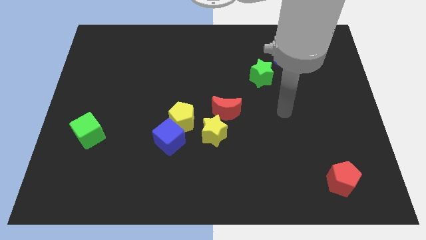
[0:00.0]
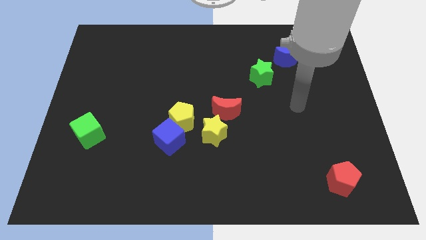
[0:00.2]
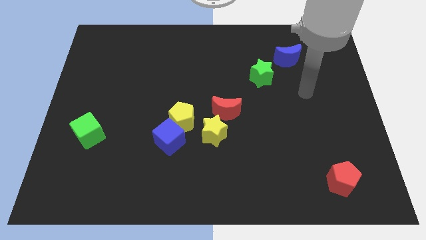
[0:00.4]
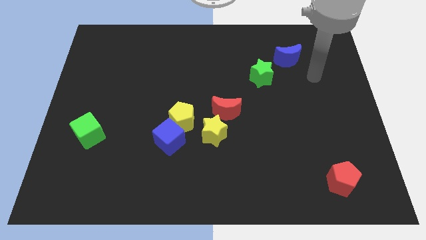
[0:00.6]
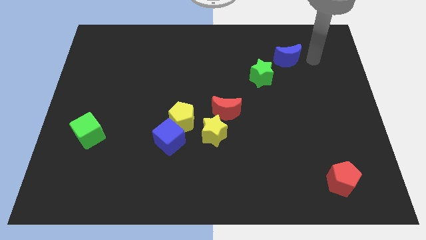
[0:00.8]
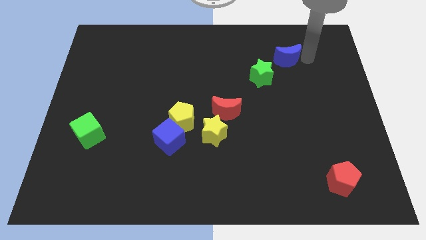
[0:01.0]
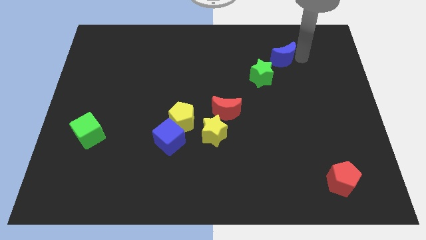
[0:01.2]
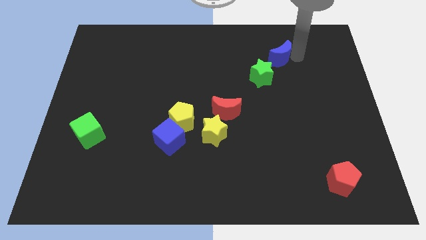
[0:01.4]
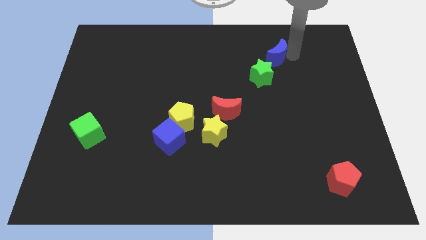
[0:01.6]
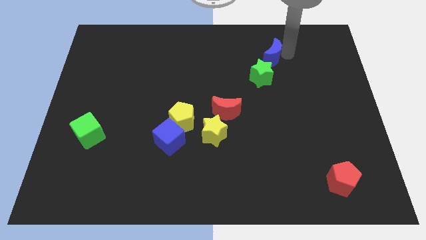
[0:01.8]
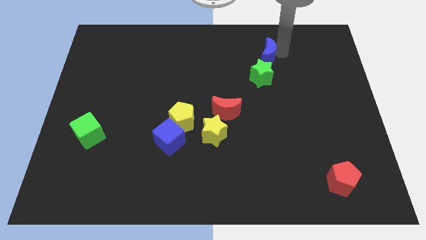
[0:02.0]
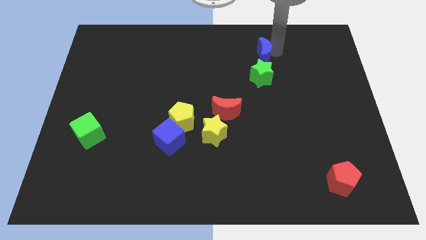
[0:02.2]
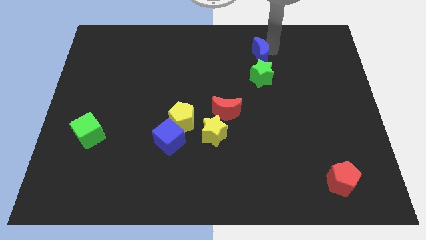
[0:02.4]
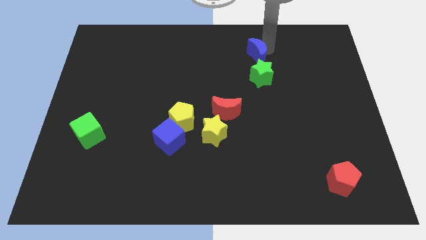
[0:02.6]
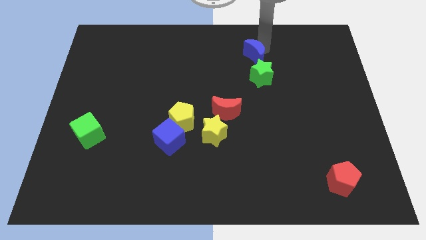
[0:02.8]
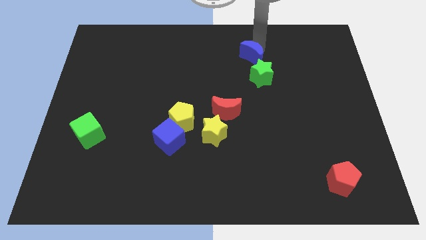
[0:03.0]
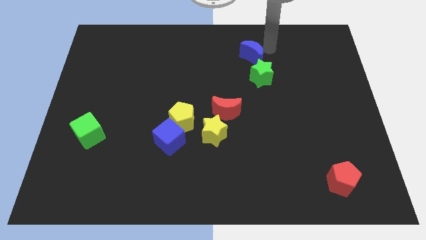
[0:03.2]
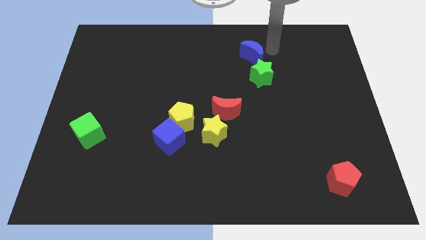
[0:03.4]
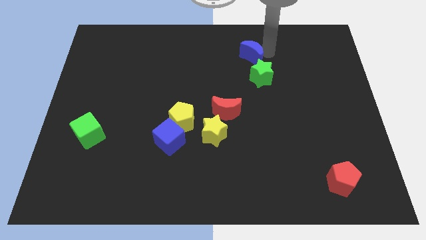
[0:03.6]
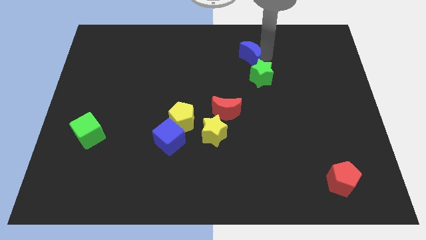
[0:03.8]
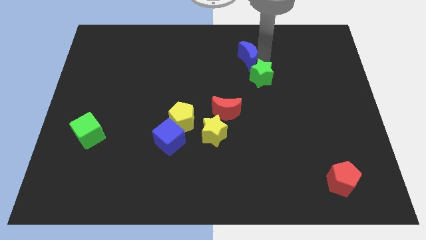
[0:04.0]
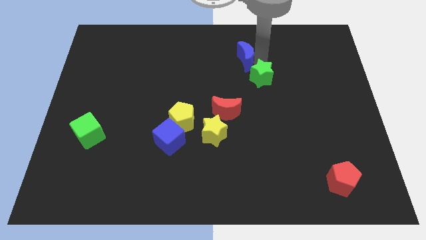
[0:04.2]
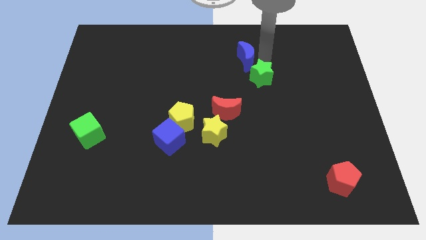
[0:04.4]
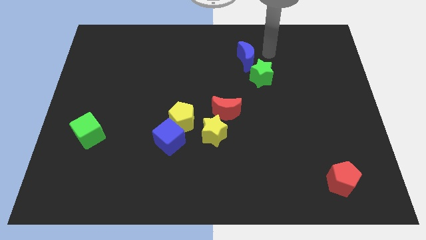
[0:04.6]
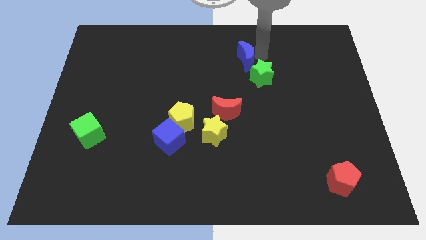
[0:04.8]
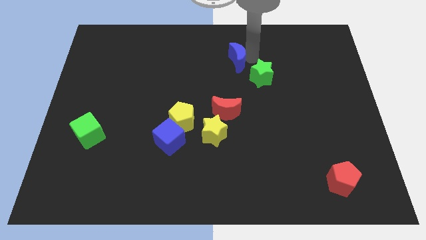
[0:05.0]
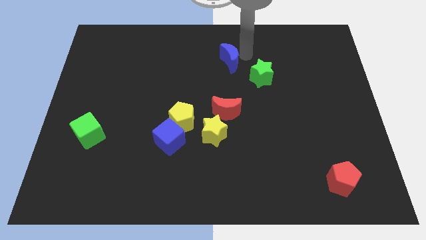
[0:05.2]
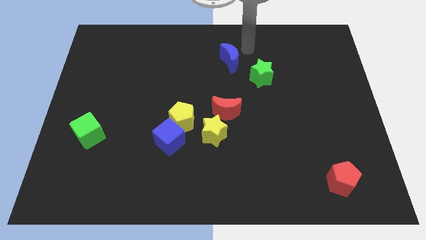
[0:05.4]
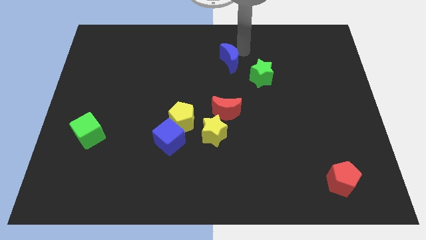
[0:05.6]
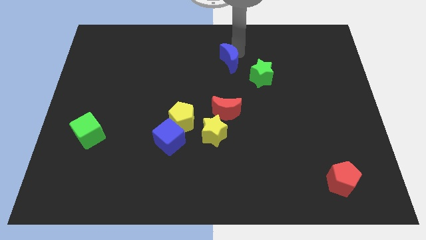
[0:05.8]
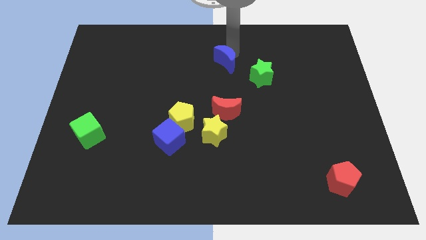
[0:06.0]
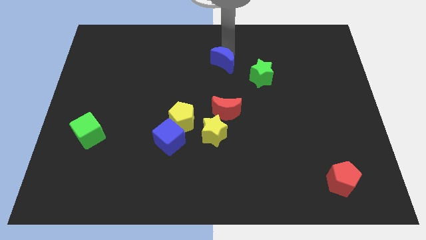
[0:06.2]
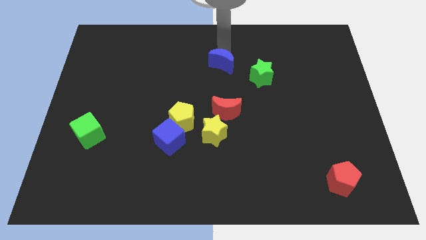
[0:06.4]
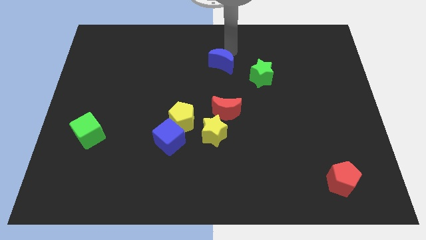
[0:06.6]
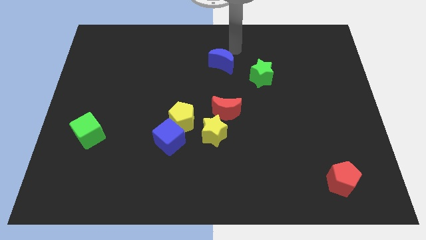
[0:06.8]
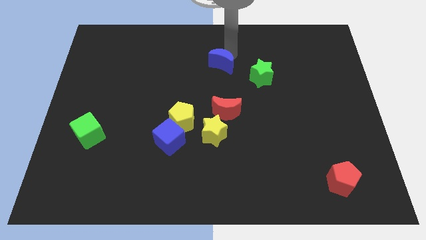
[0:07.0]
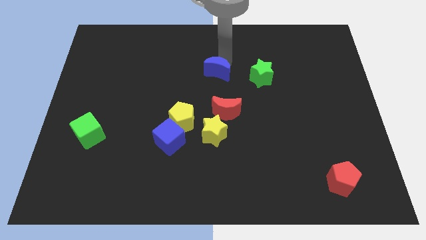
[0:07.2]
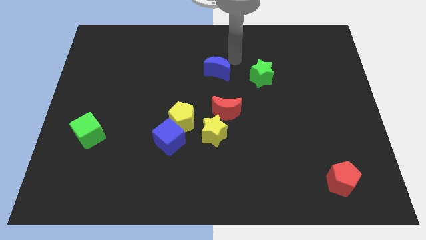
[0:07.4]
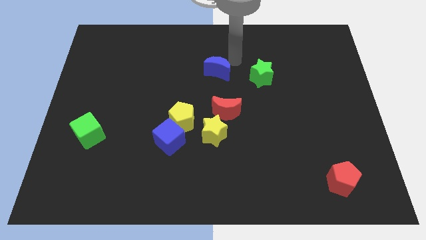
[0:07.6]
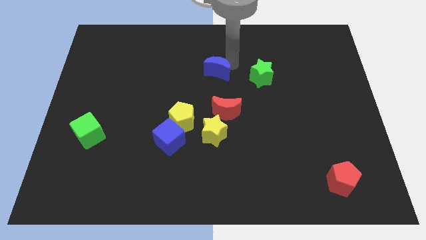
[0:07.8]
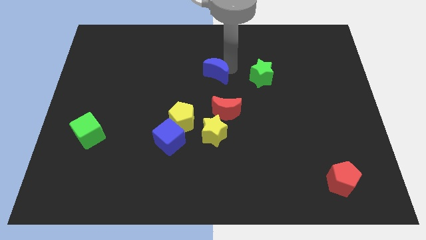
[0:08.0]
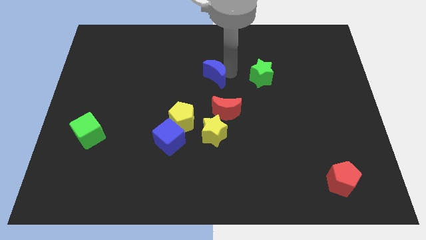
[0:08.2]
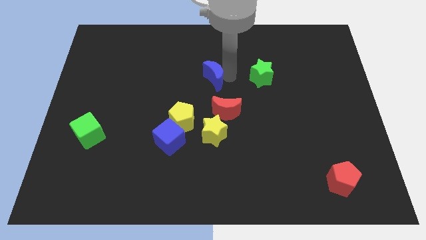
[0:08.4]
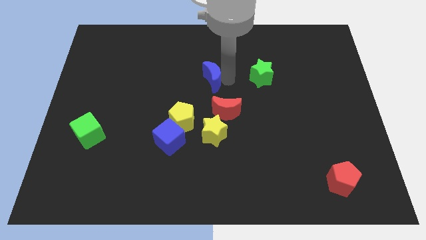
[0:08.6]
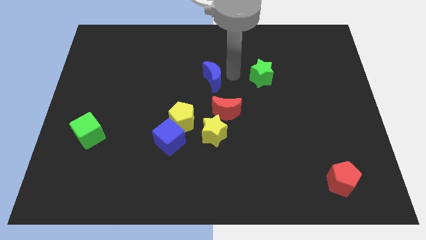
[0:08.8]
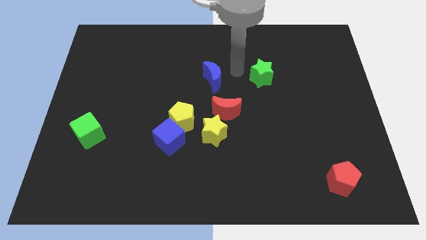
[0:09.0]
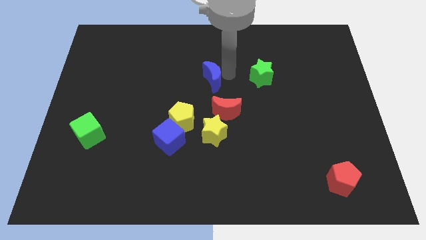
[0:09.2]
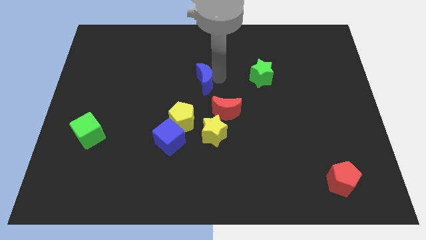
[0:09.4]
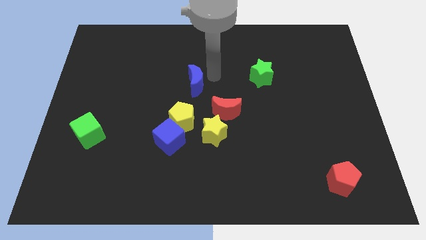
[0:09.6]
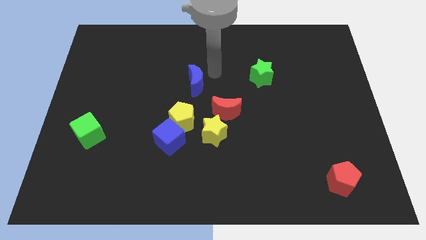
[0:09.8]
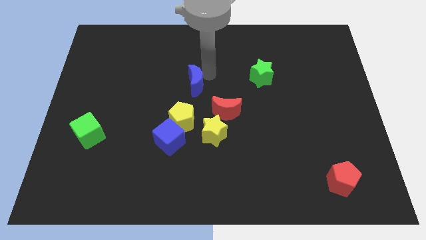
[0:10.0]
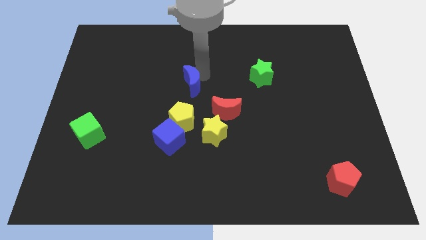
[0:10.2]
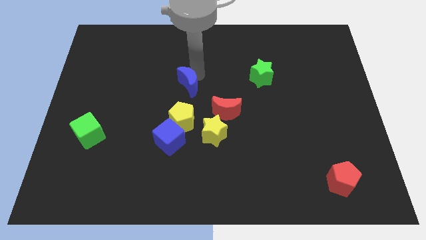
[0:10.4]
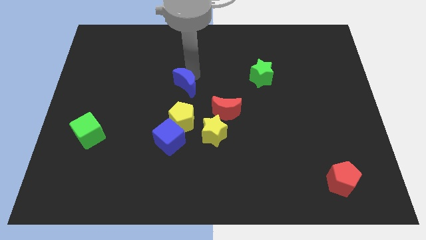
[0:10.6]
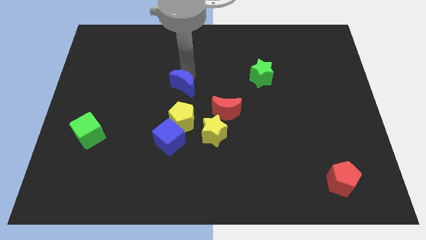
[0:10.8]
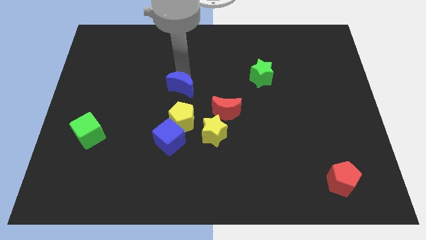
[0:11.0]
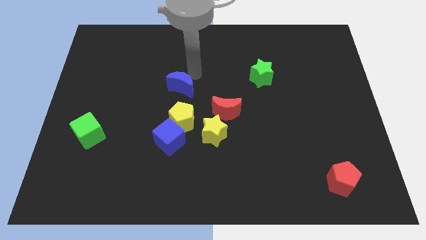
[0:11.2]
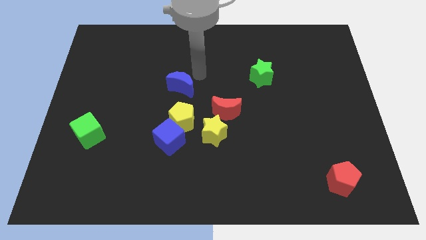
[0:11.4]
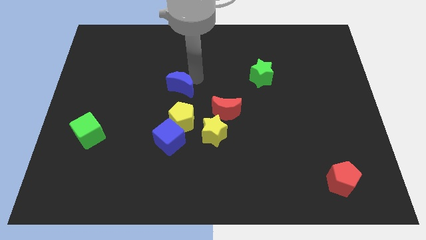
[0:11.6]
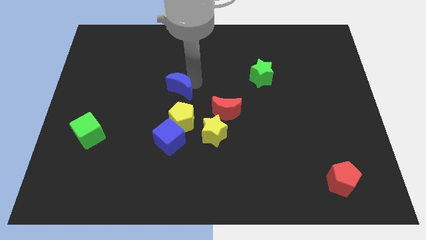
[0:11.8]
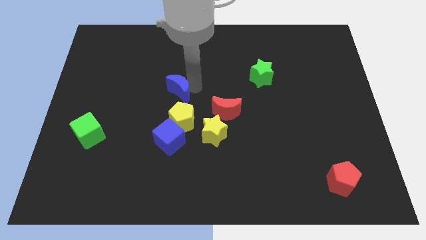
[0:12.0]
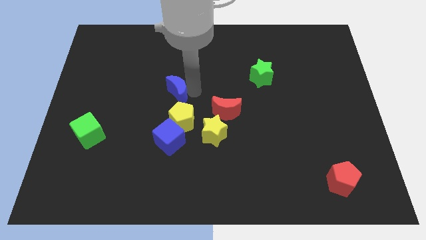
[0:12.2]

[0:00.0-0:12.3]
put the blue moon to the top left side of the yellow pentagon

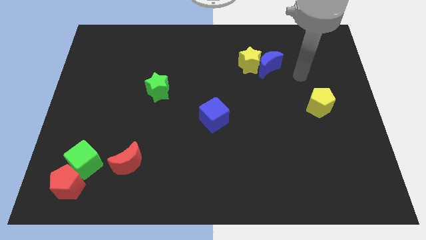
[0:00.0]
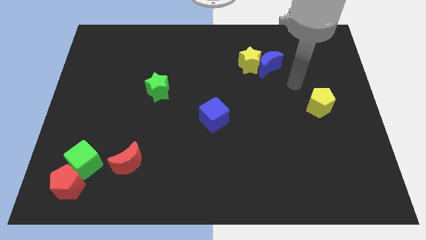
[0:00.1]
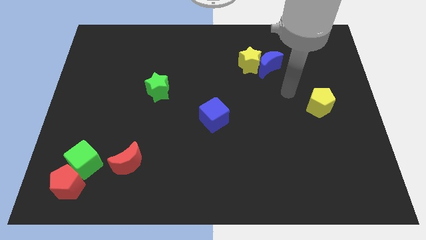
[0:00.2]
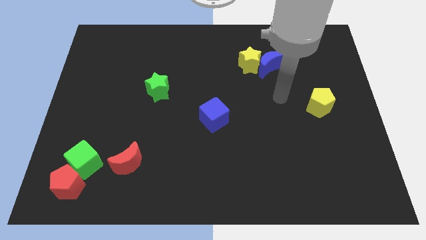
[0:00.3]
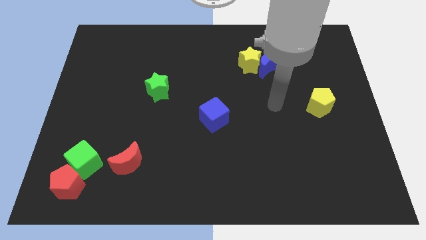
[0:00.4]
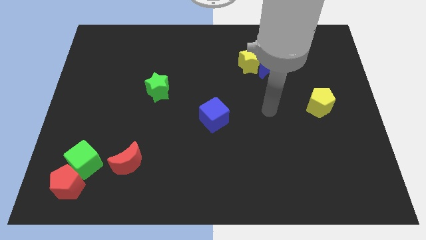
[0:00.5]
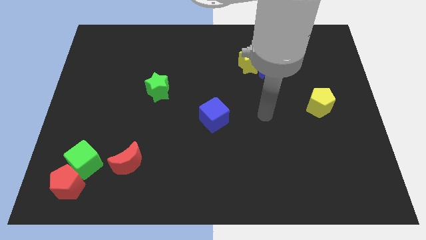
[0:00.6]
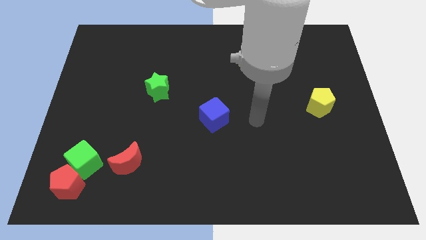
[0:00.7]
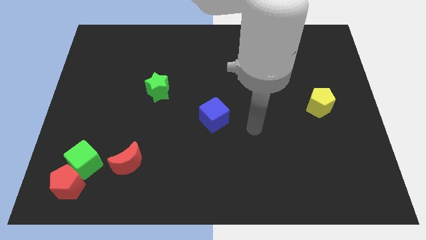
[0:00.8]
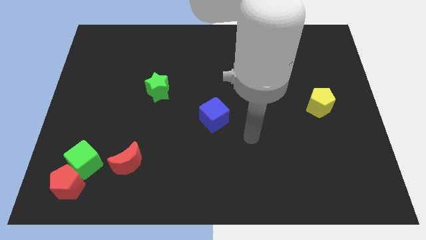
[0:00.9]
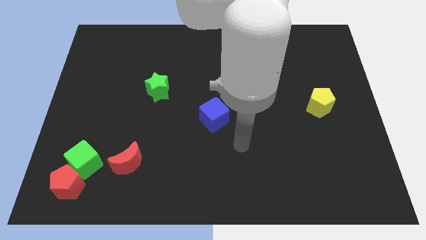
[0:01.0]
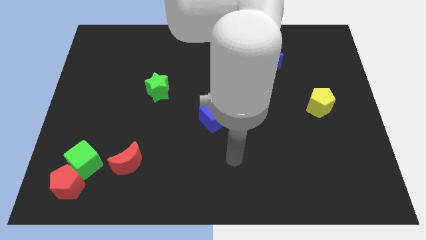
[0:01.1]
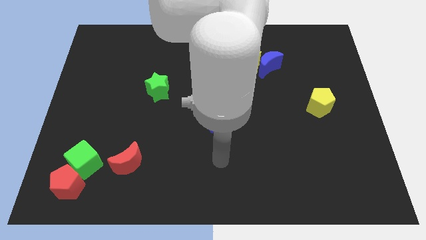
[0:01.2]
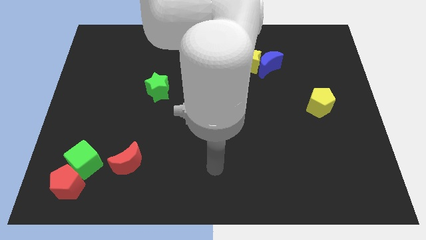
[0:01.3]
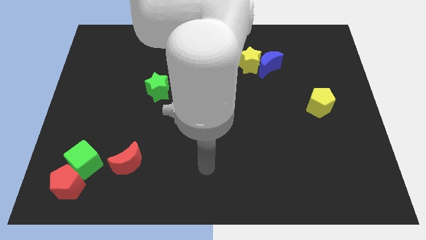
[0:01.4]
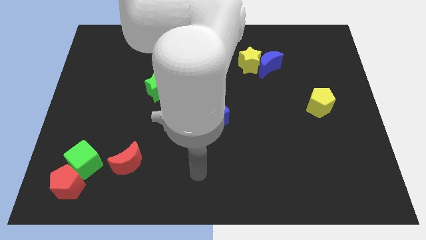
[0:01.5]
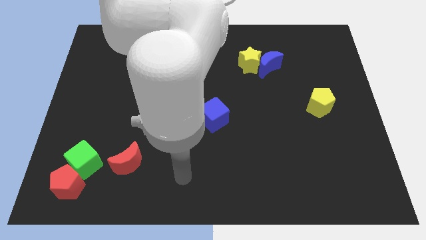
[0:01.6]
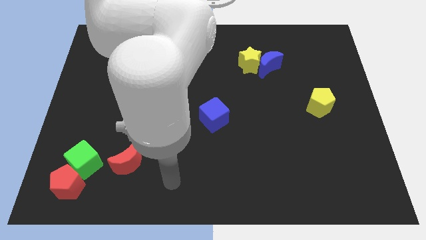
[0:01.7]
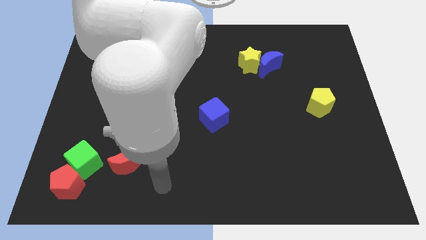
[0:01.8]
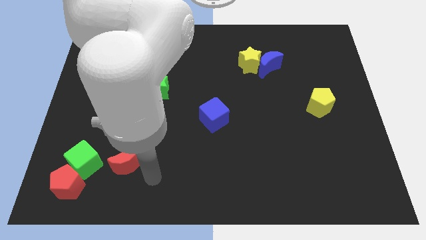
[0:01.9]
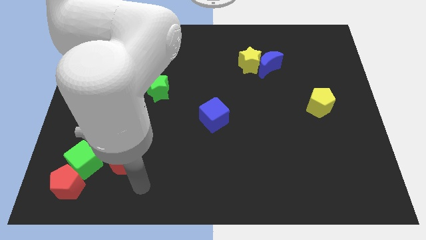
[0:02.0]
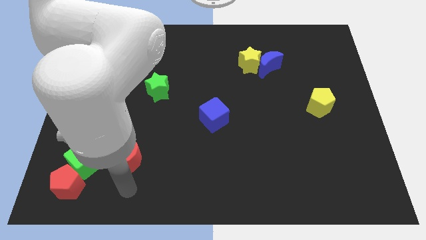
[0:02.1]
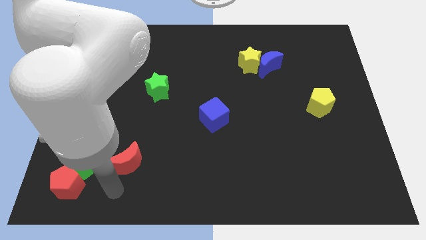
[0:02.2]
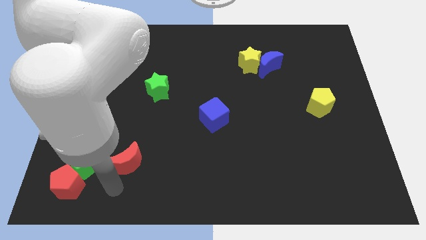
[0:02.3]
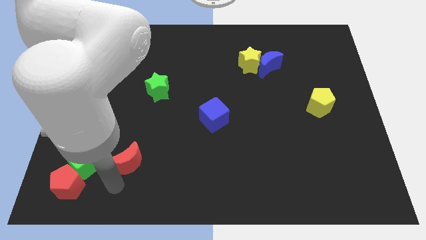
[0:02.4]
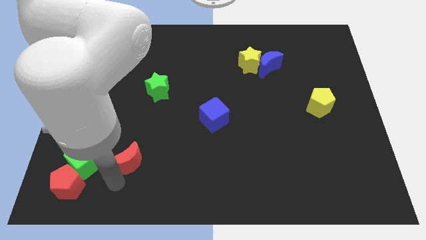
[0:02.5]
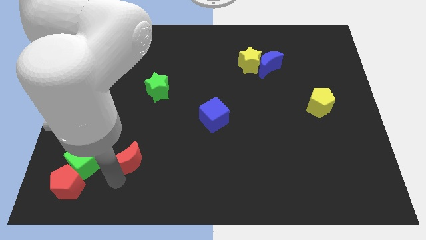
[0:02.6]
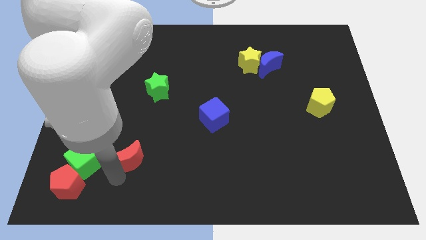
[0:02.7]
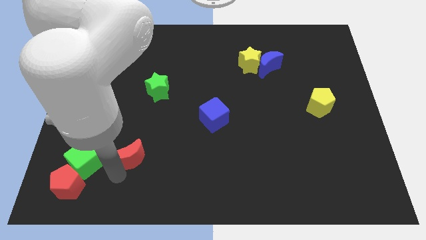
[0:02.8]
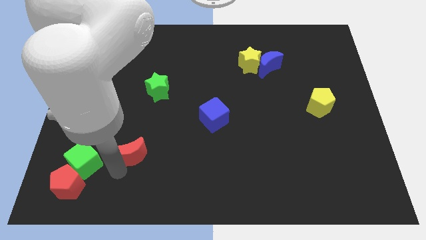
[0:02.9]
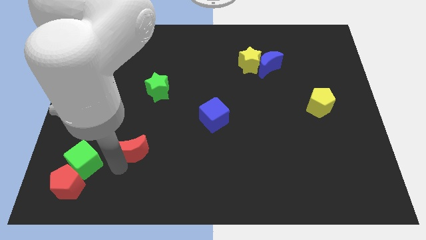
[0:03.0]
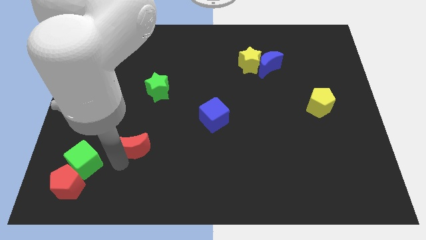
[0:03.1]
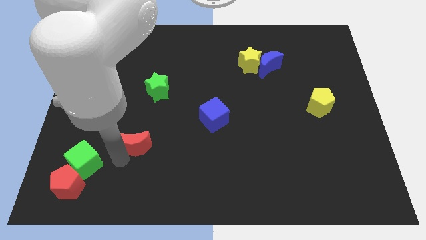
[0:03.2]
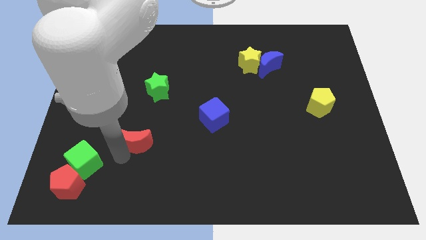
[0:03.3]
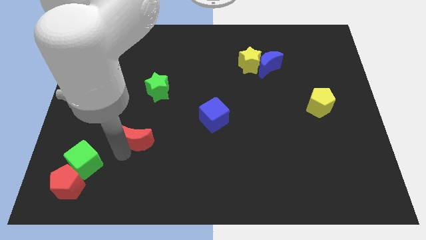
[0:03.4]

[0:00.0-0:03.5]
move the red moon to the bottom side of the green star
